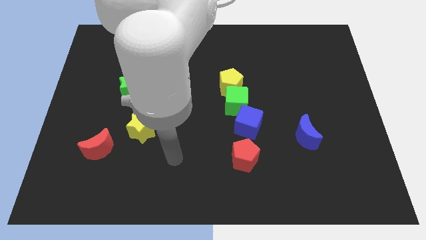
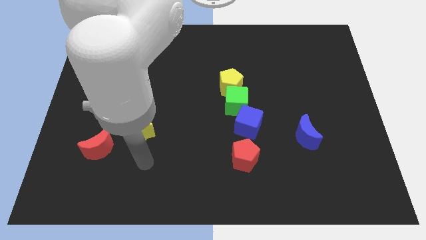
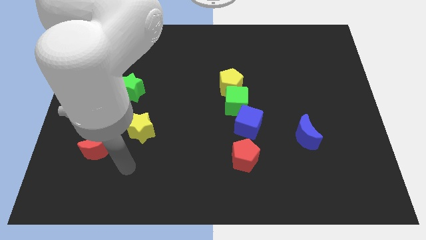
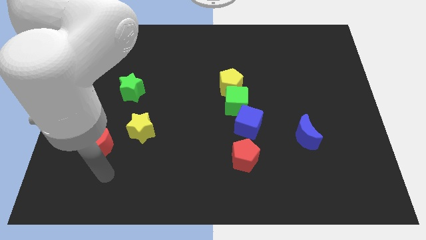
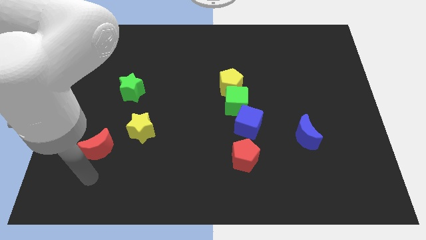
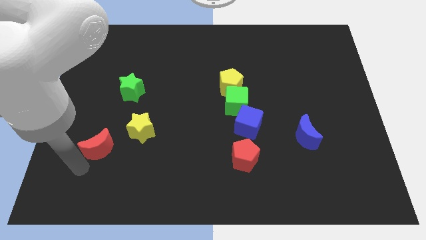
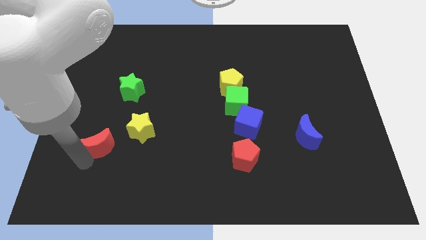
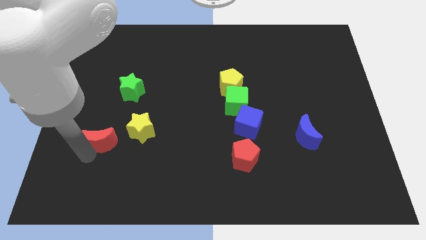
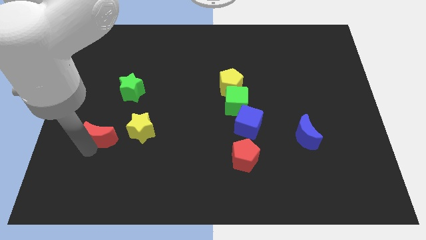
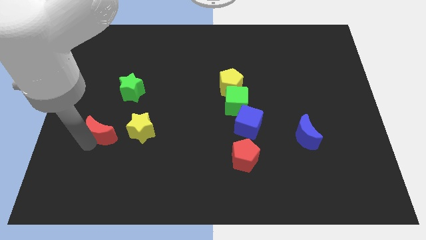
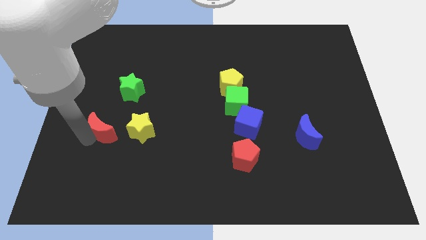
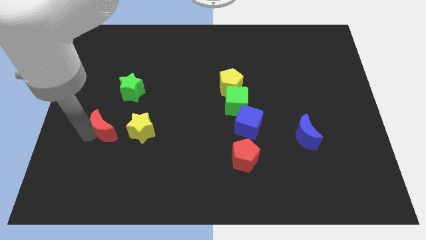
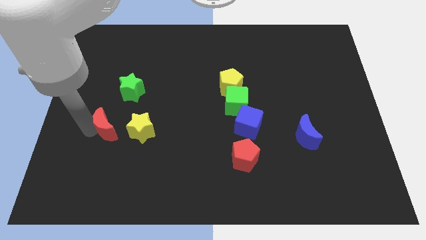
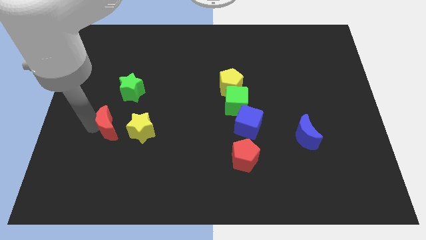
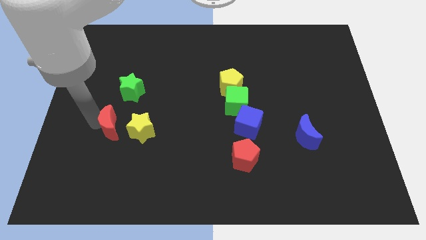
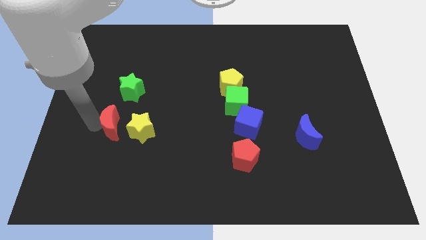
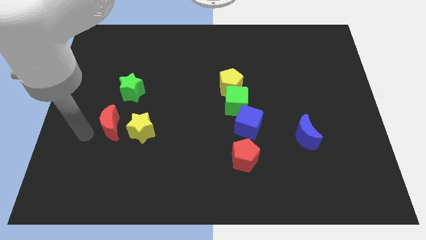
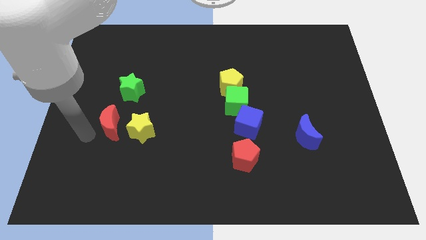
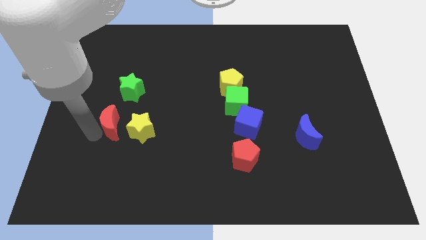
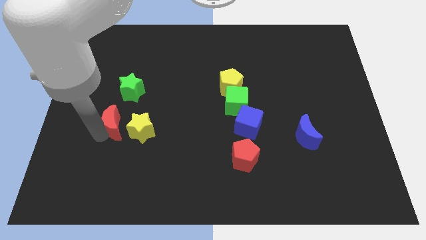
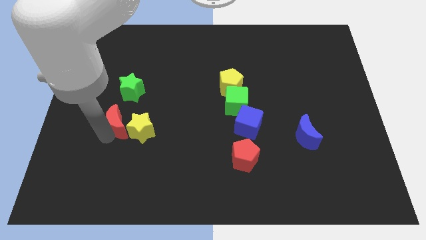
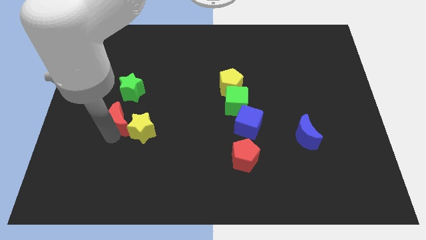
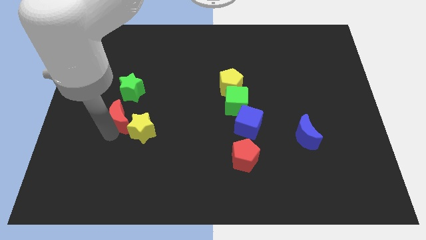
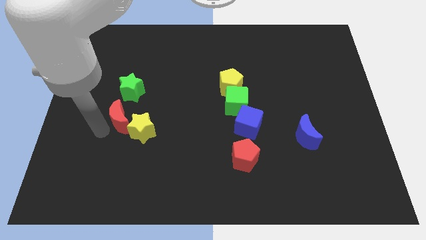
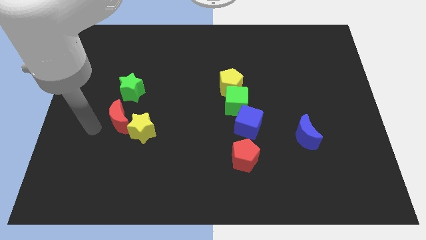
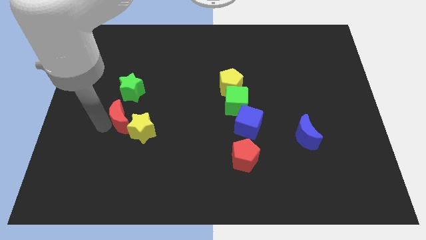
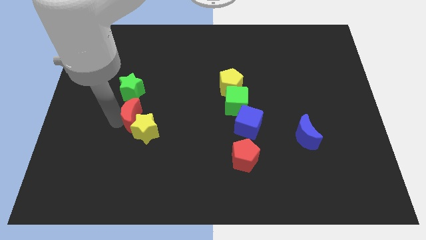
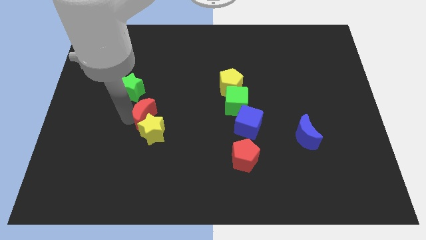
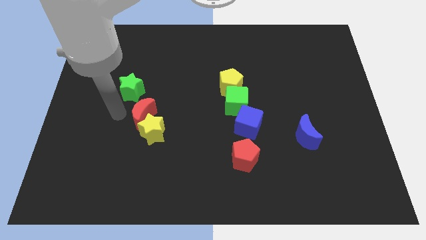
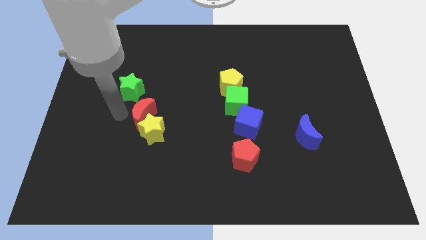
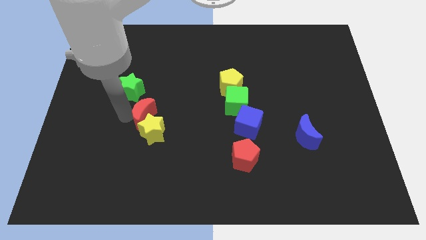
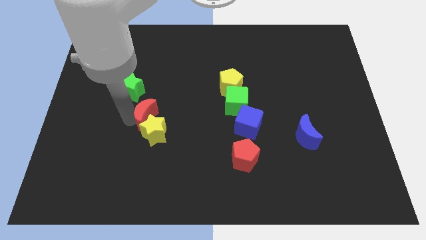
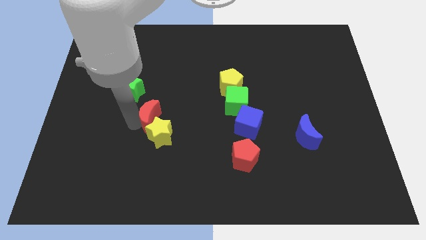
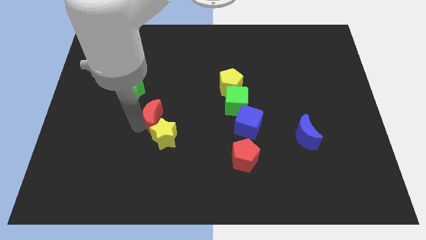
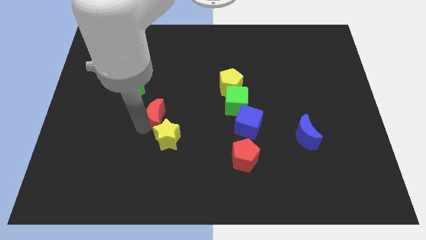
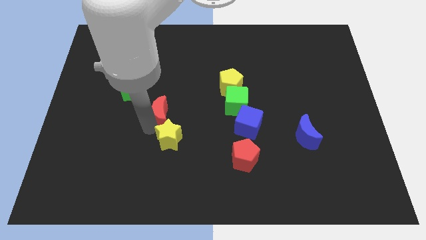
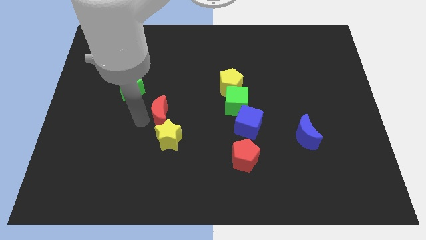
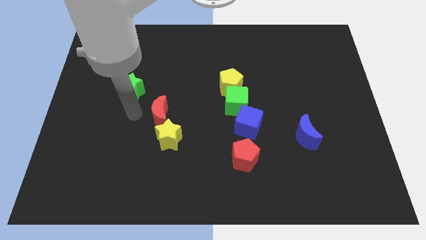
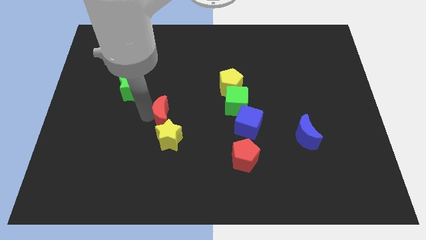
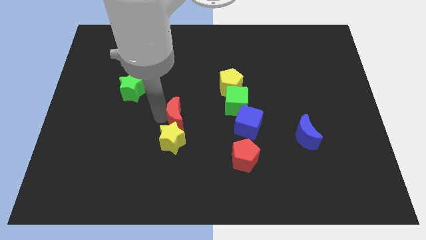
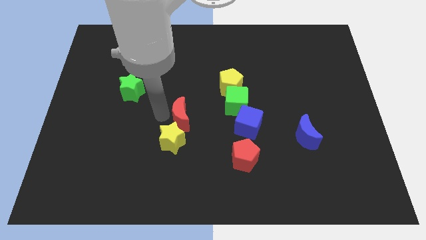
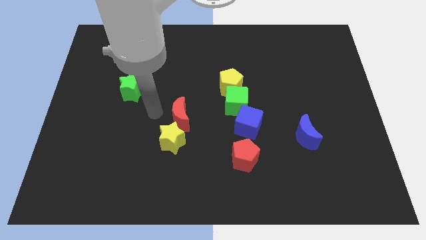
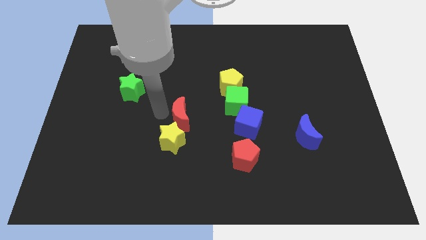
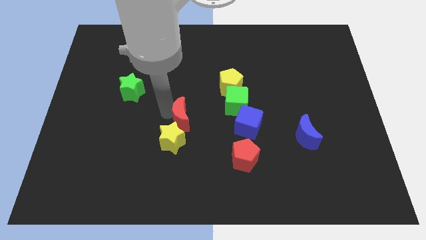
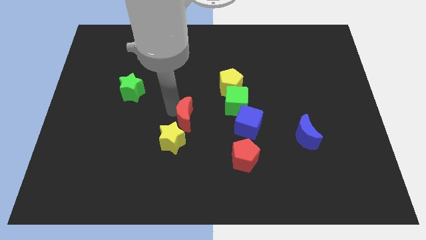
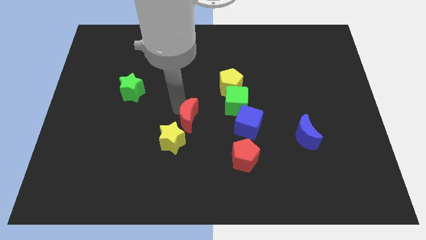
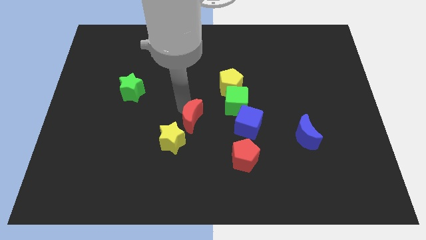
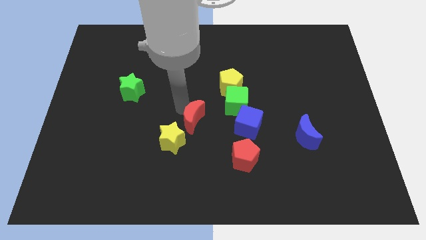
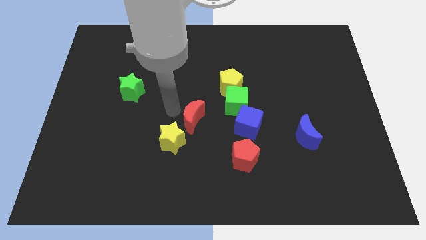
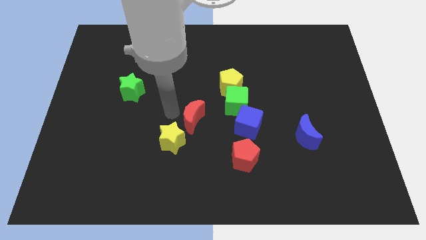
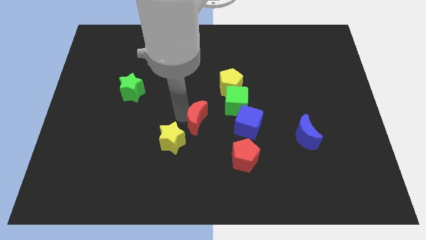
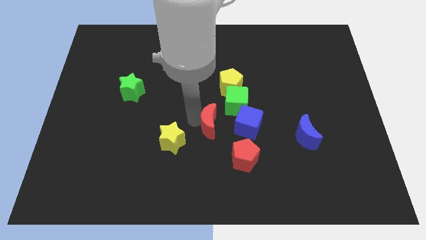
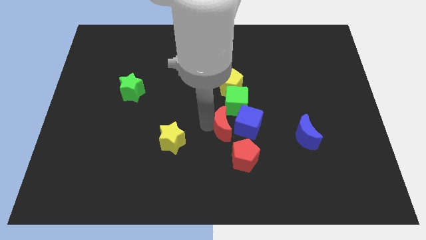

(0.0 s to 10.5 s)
move the red moon to the blue cube

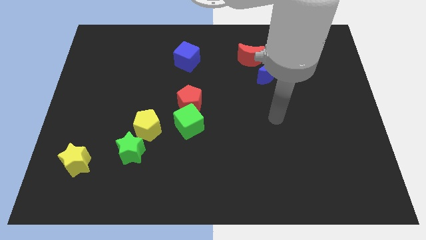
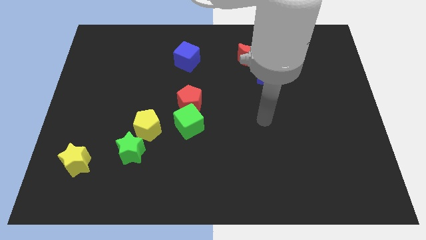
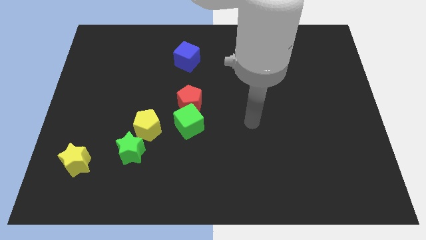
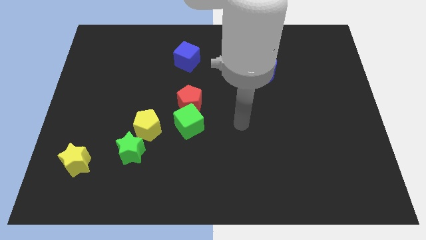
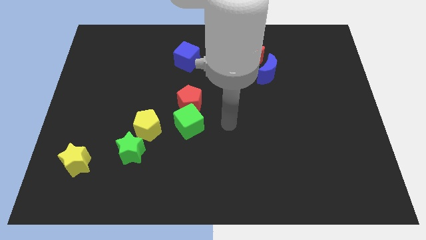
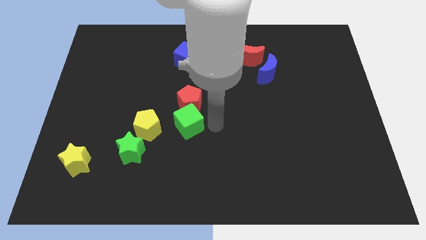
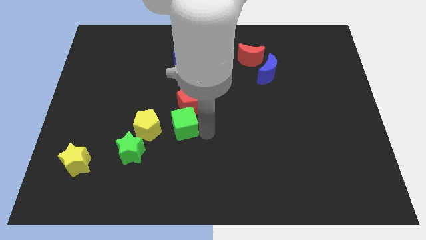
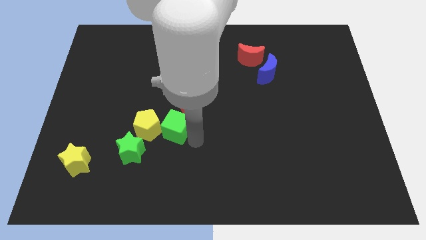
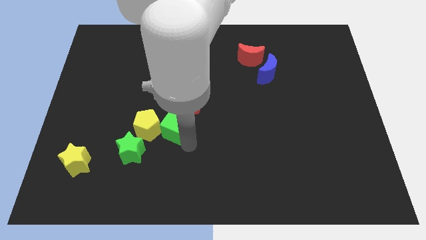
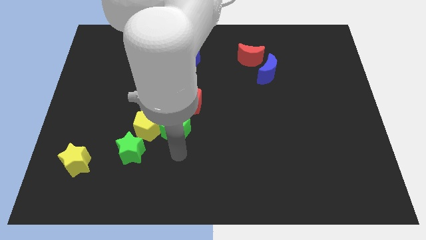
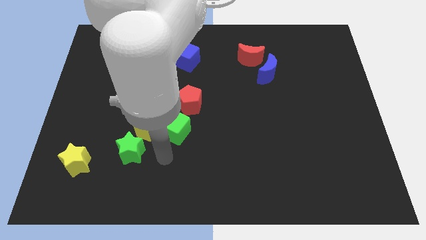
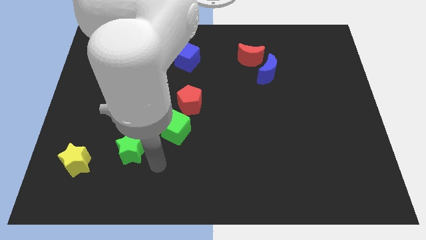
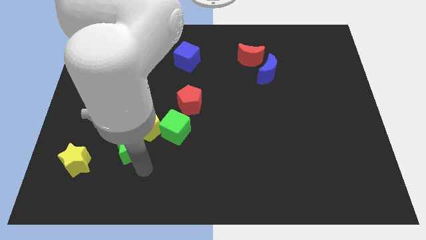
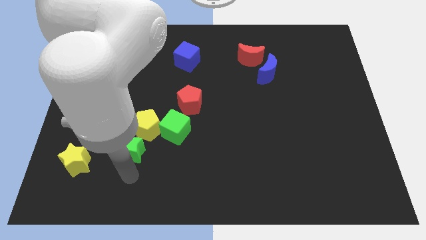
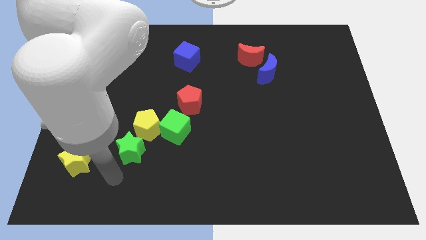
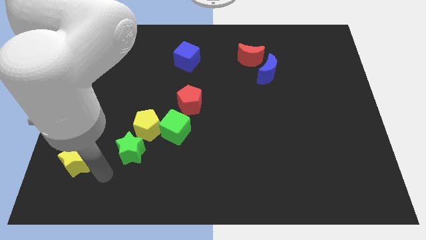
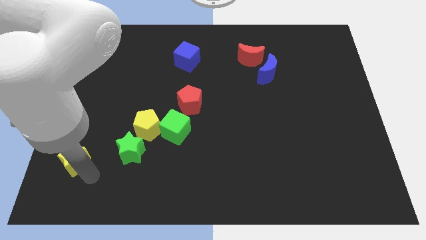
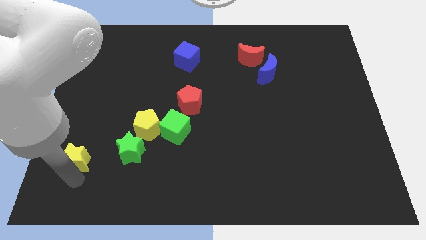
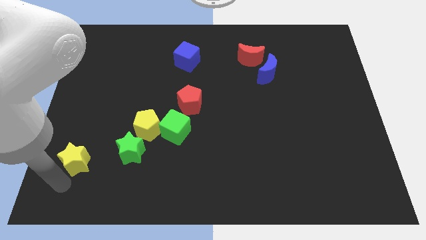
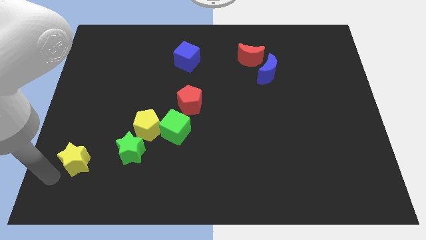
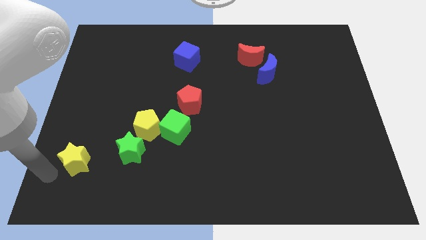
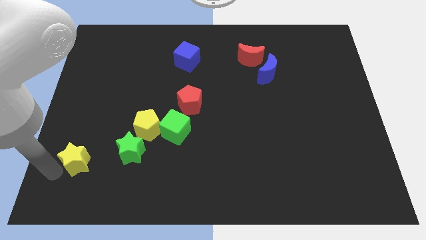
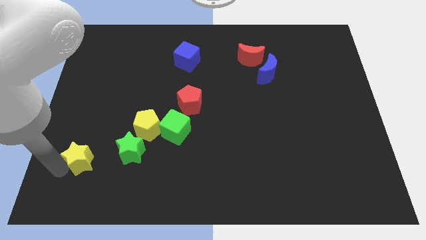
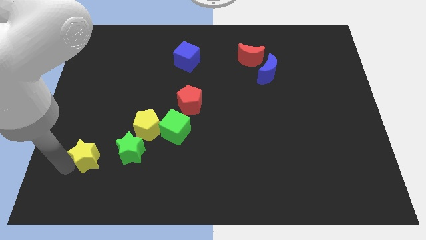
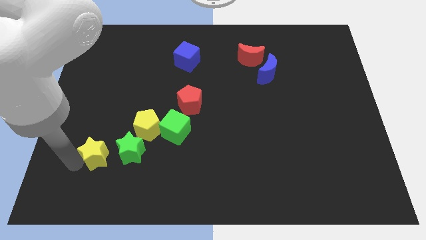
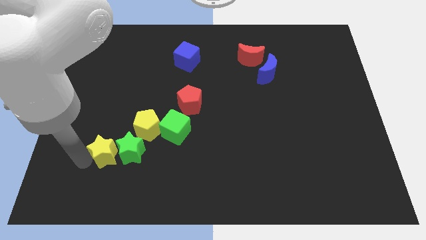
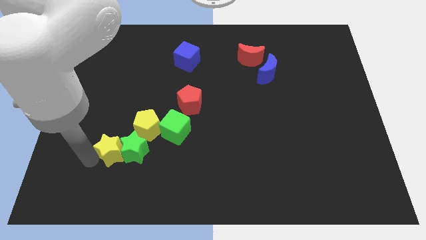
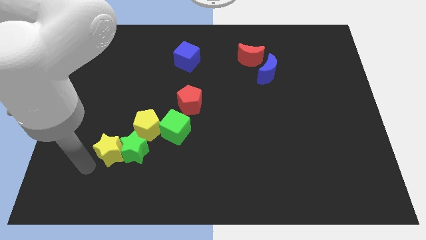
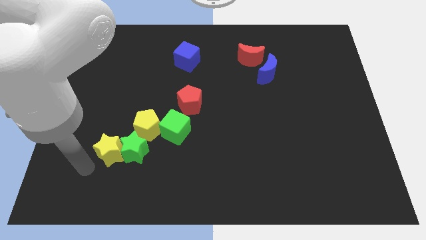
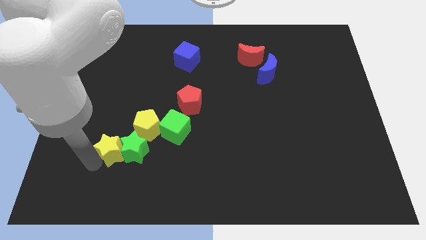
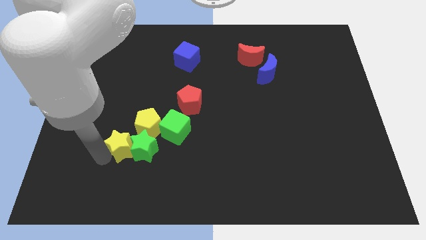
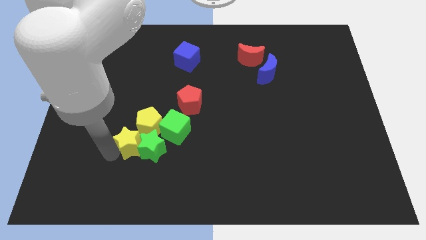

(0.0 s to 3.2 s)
move the yellow star close to the yellow pentagon
